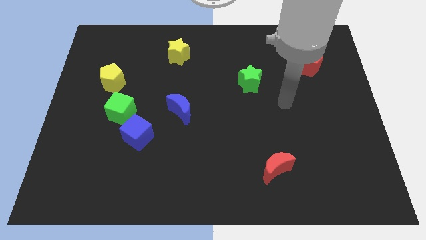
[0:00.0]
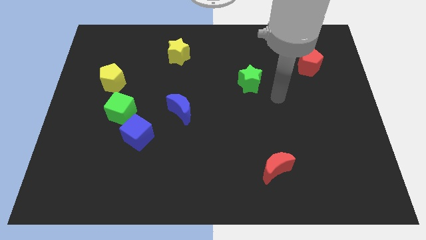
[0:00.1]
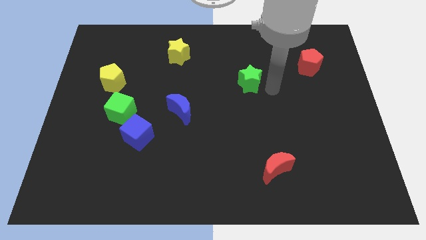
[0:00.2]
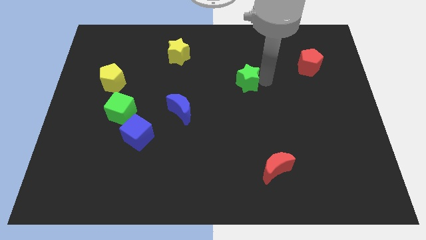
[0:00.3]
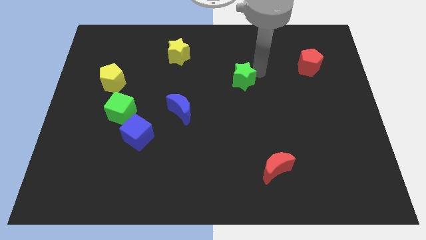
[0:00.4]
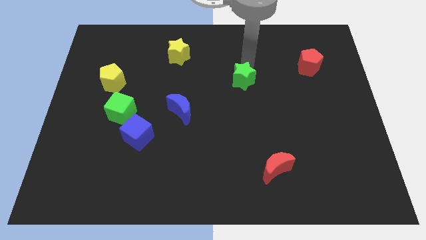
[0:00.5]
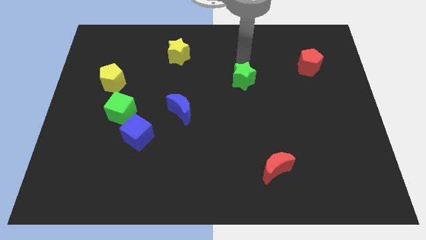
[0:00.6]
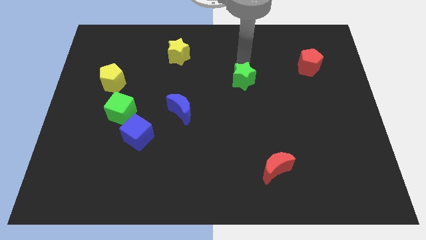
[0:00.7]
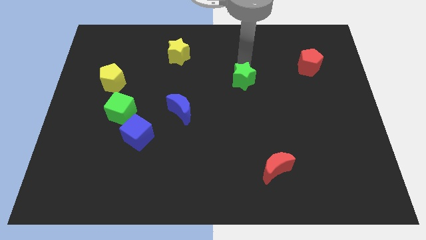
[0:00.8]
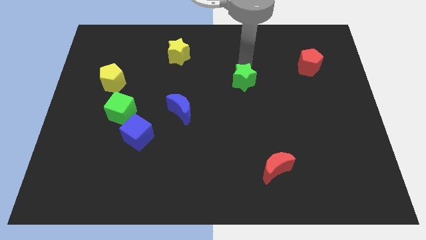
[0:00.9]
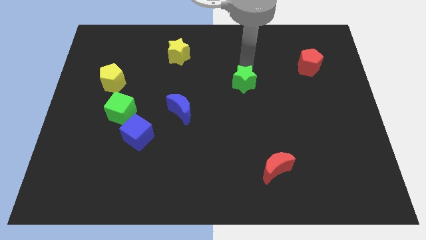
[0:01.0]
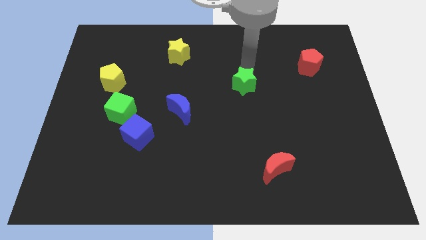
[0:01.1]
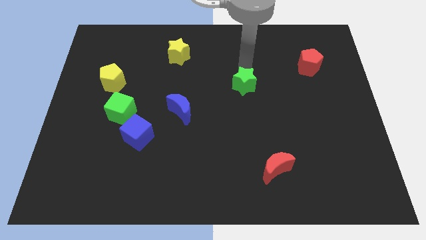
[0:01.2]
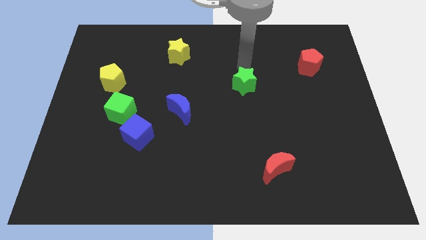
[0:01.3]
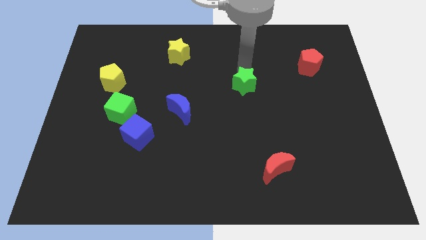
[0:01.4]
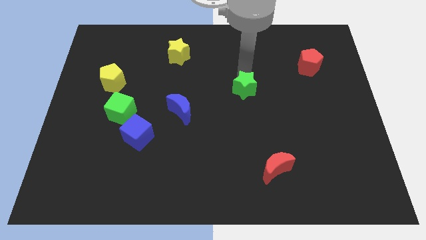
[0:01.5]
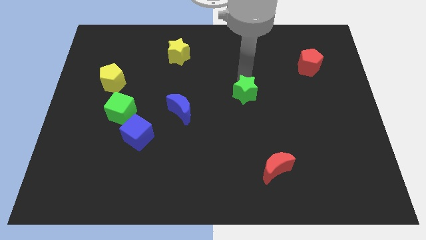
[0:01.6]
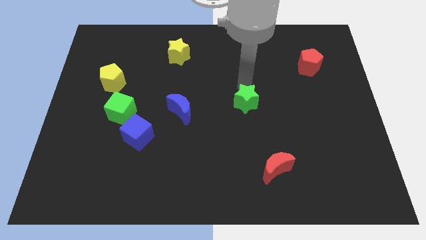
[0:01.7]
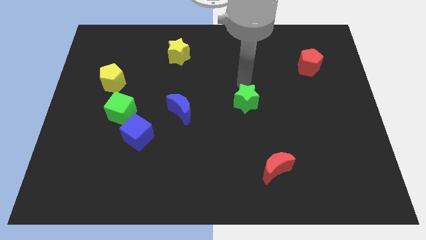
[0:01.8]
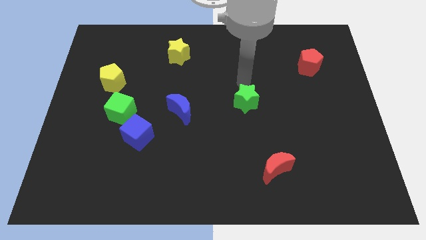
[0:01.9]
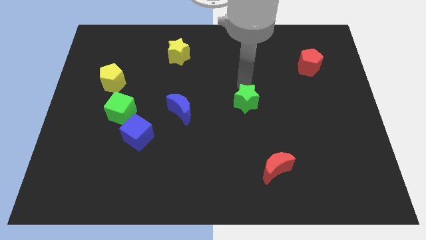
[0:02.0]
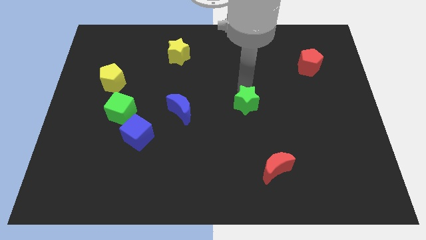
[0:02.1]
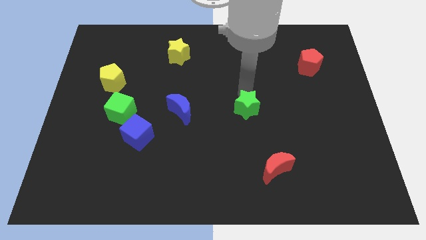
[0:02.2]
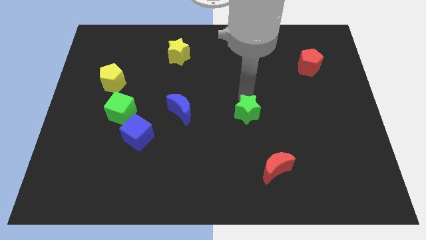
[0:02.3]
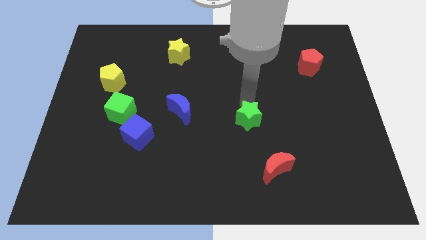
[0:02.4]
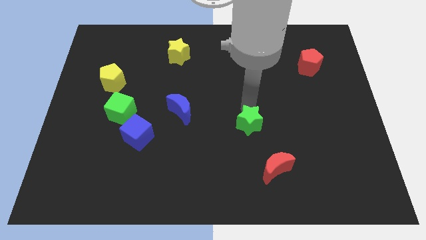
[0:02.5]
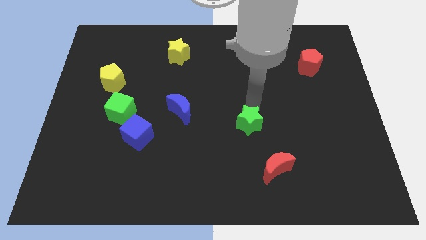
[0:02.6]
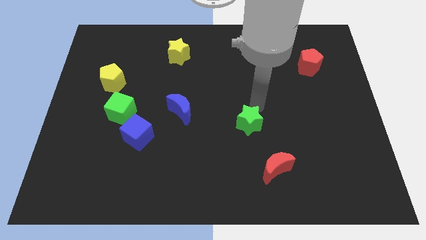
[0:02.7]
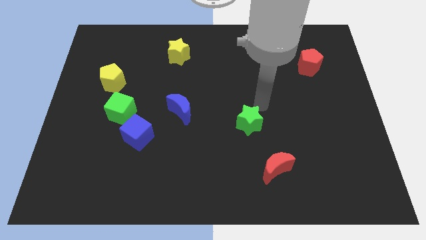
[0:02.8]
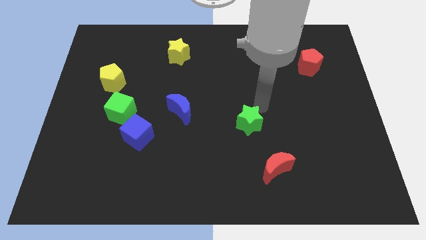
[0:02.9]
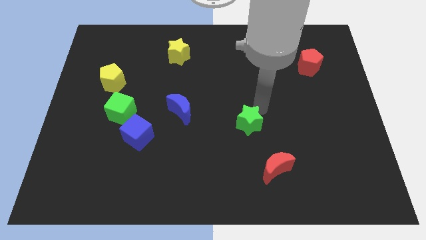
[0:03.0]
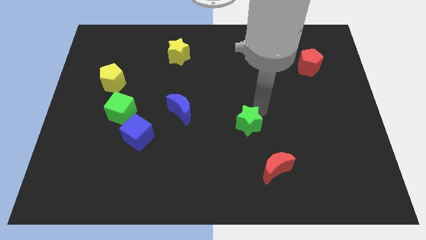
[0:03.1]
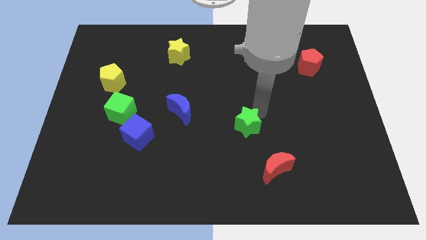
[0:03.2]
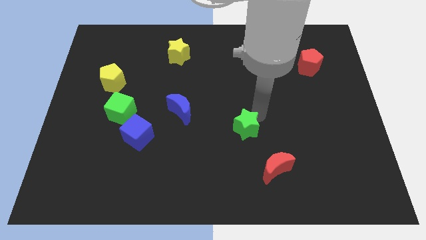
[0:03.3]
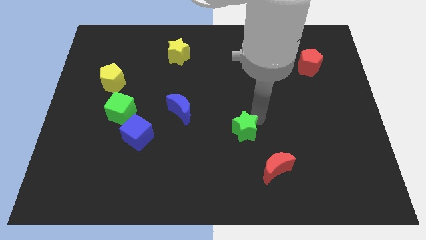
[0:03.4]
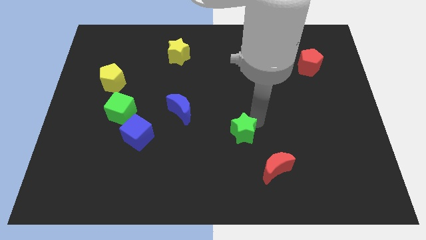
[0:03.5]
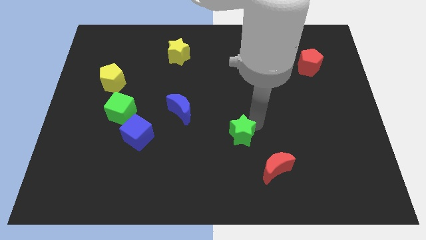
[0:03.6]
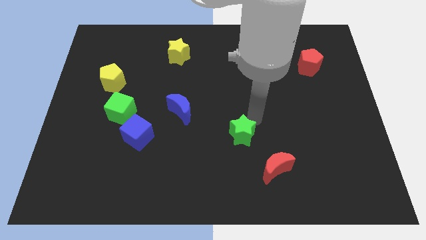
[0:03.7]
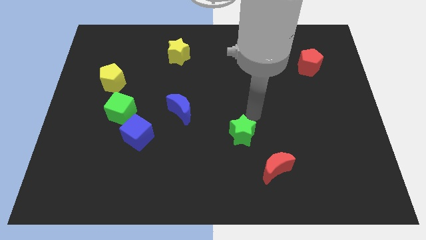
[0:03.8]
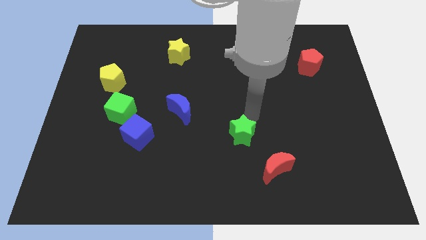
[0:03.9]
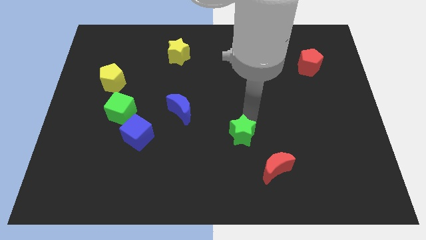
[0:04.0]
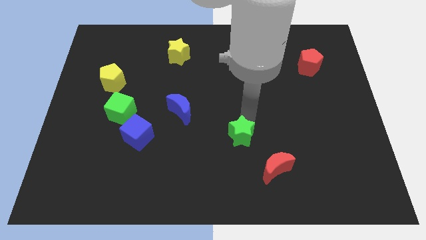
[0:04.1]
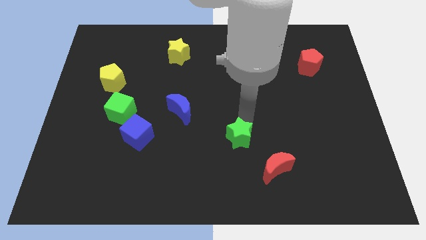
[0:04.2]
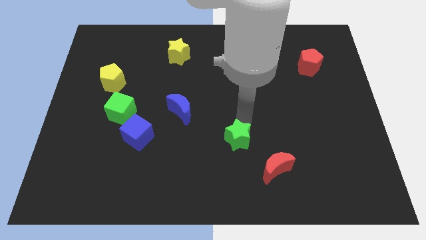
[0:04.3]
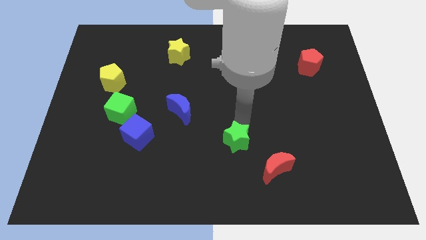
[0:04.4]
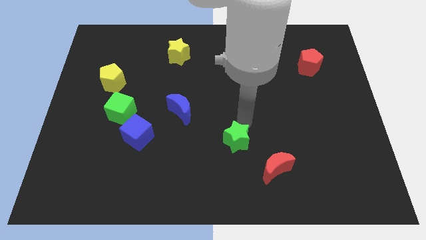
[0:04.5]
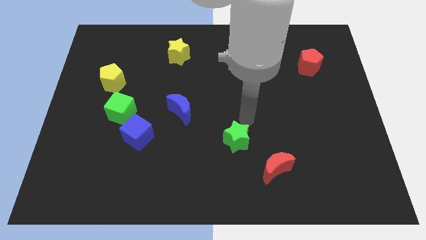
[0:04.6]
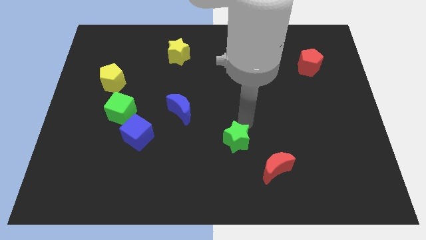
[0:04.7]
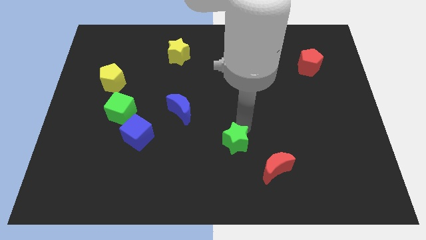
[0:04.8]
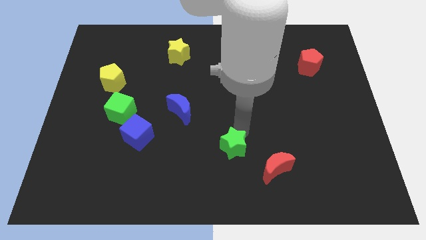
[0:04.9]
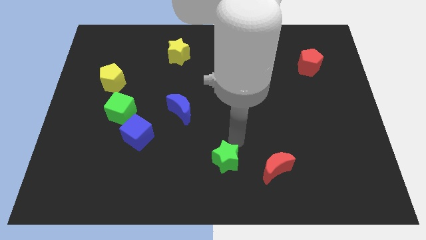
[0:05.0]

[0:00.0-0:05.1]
slide the green star to the bottom side

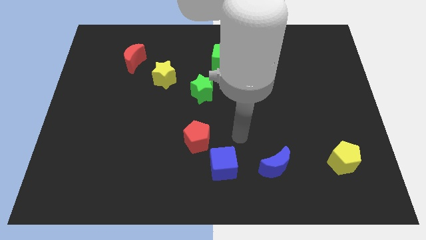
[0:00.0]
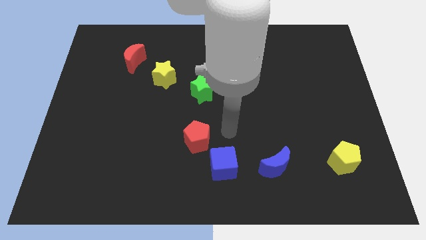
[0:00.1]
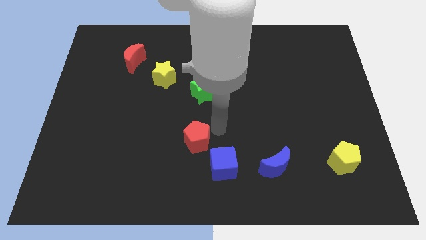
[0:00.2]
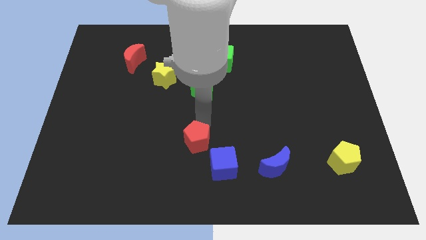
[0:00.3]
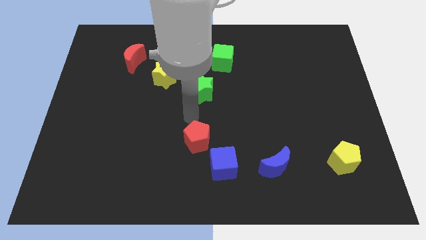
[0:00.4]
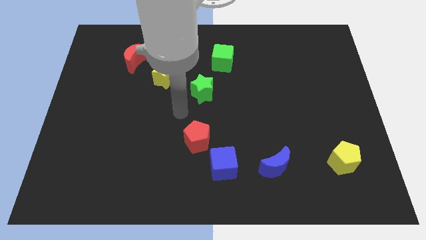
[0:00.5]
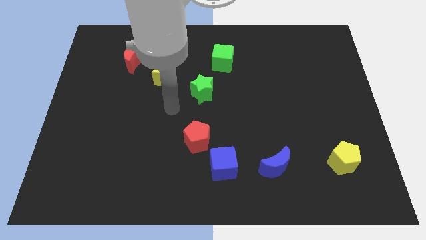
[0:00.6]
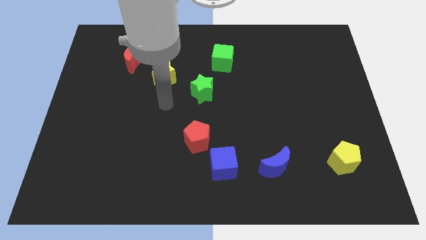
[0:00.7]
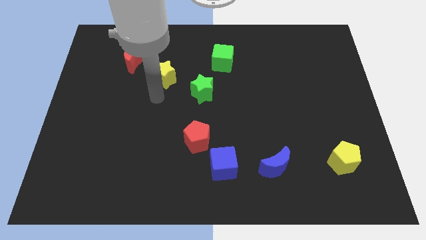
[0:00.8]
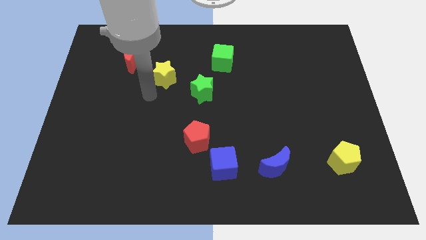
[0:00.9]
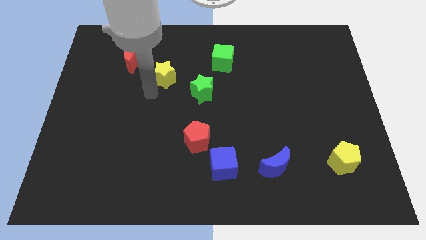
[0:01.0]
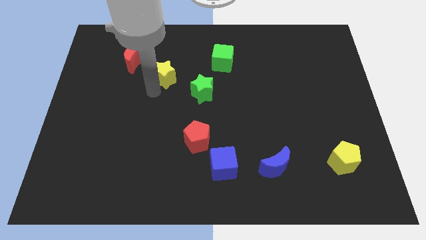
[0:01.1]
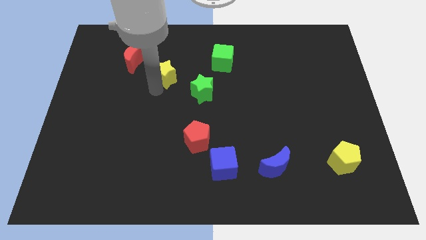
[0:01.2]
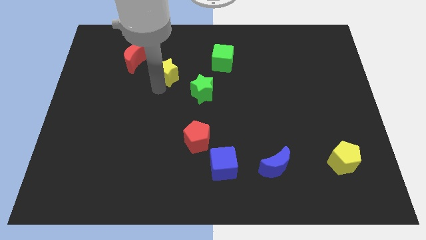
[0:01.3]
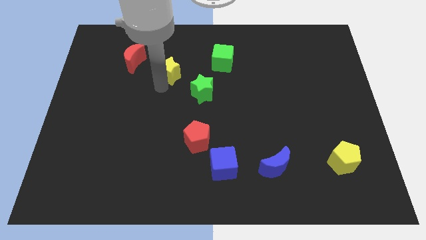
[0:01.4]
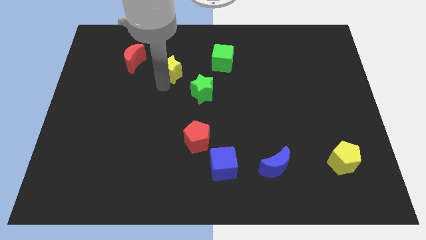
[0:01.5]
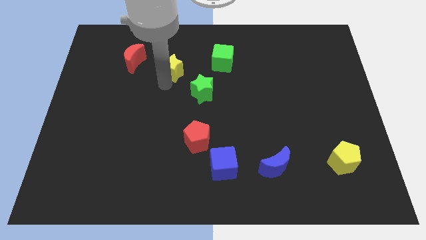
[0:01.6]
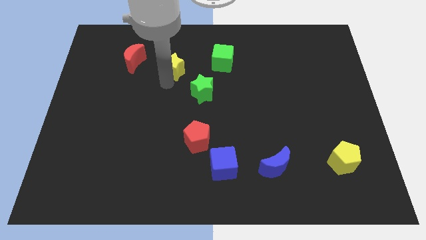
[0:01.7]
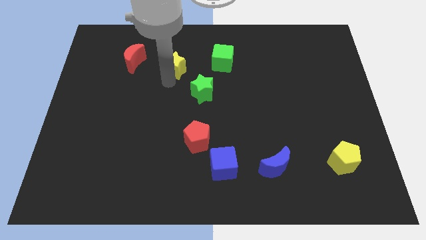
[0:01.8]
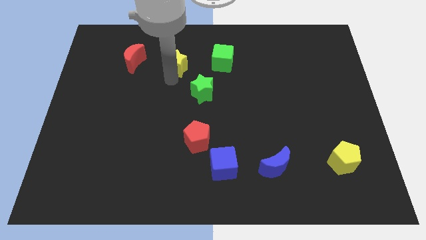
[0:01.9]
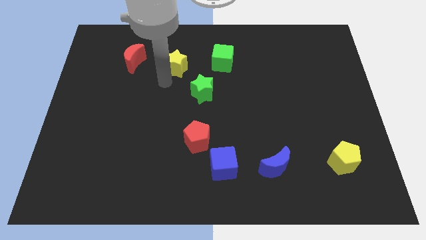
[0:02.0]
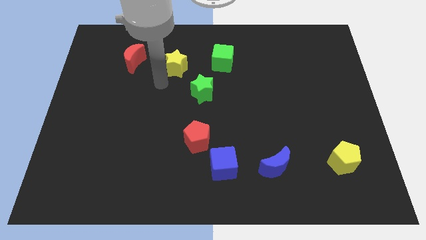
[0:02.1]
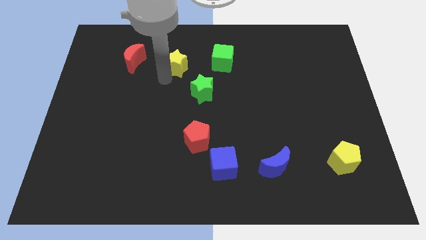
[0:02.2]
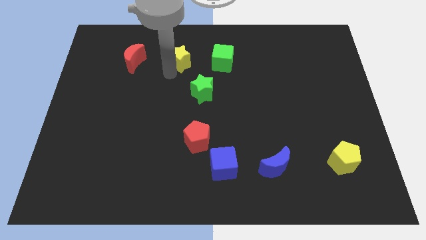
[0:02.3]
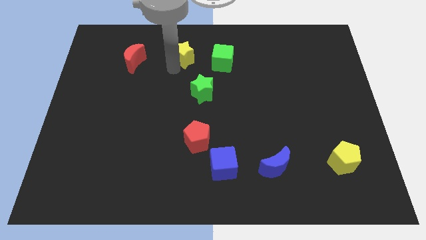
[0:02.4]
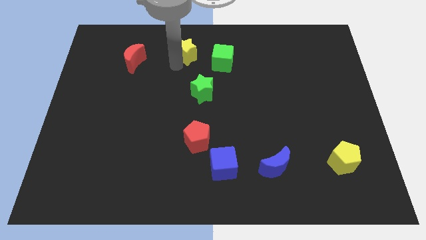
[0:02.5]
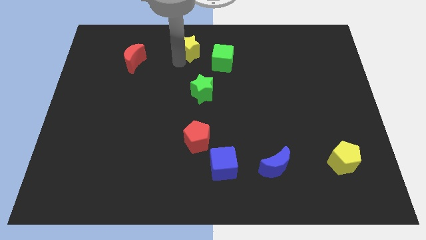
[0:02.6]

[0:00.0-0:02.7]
slide the yellow star to the towards your base
